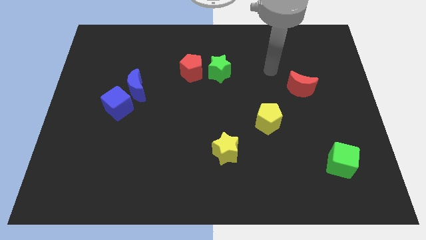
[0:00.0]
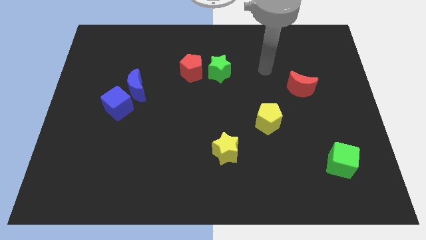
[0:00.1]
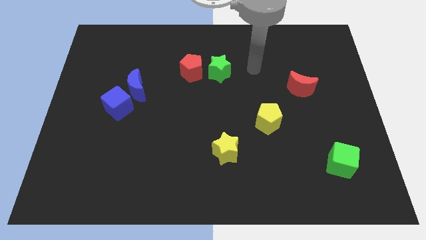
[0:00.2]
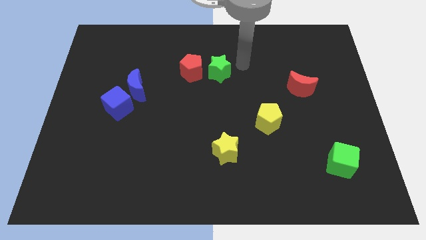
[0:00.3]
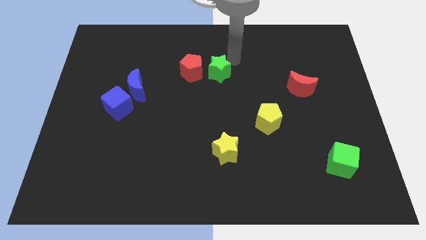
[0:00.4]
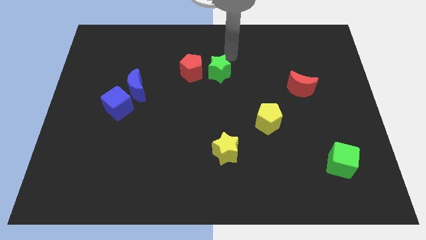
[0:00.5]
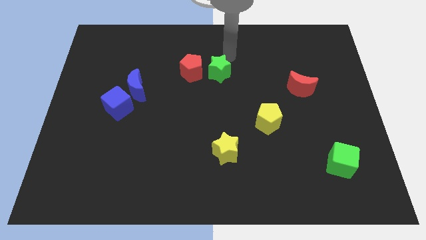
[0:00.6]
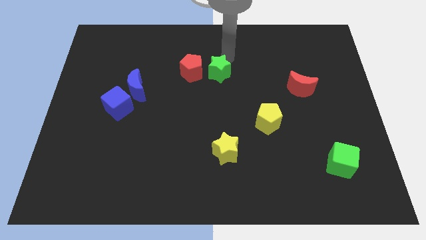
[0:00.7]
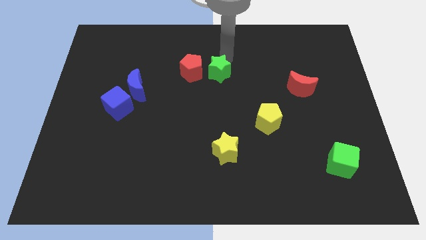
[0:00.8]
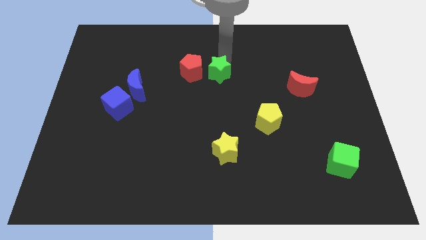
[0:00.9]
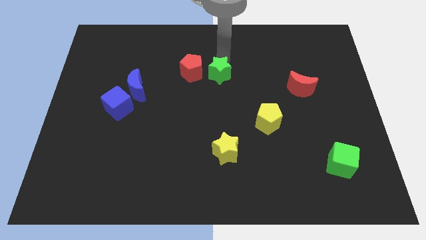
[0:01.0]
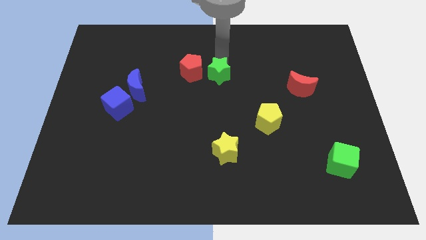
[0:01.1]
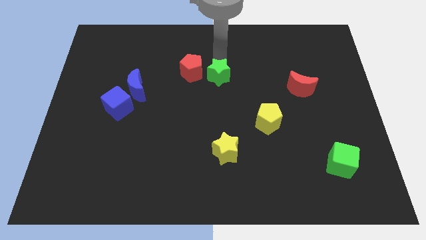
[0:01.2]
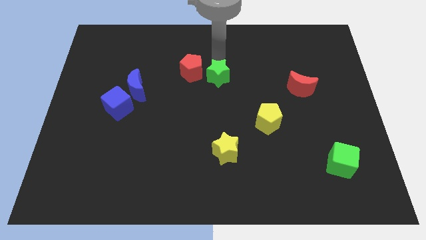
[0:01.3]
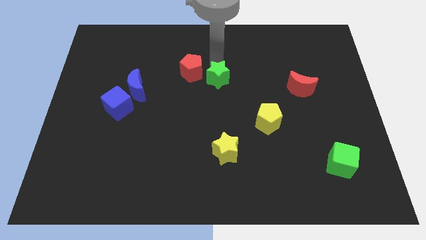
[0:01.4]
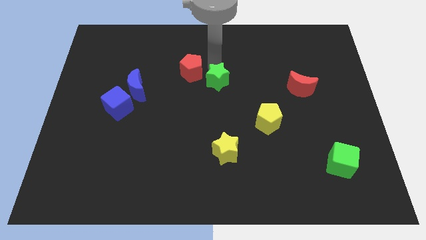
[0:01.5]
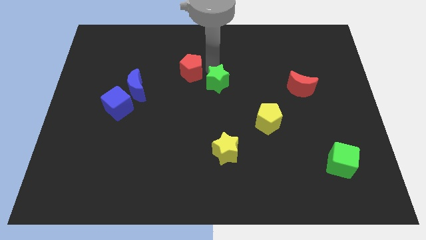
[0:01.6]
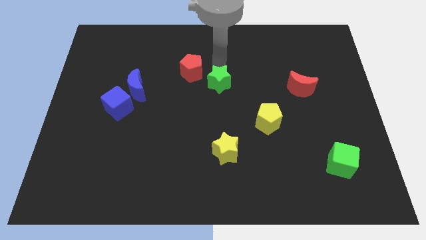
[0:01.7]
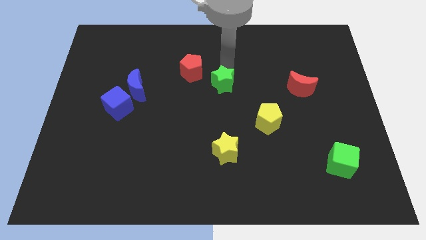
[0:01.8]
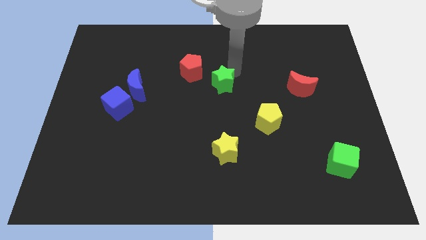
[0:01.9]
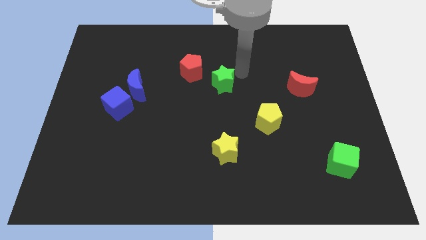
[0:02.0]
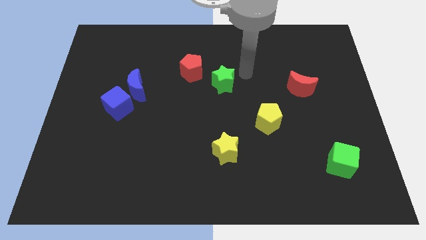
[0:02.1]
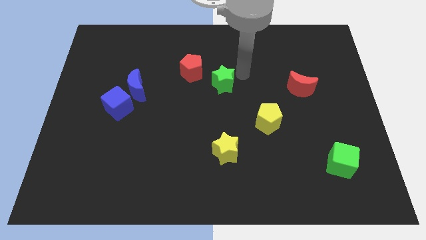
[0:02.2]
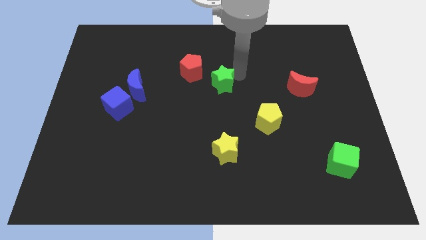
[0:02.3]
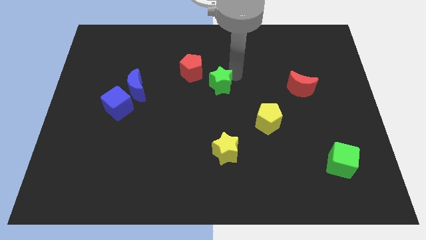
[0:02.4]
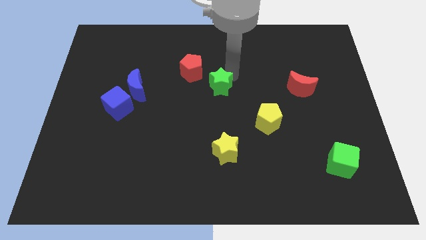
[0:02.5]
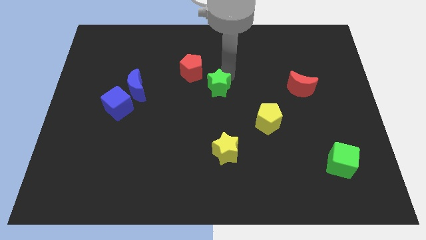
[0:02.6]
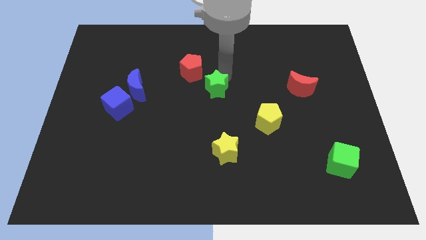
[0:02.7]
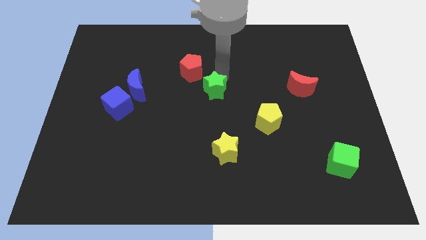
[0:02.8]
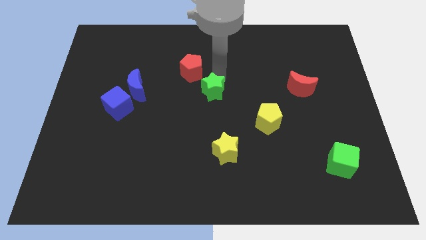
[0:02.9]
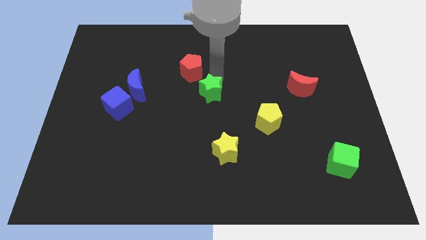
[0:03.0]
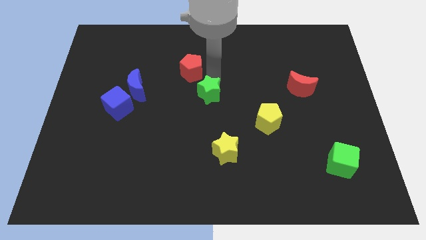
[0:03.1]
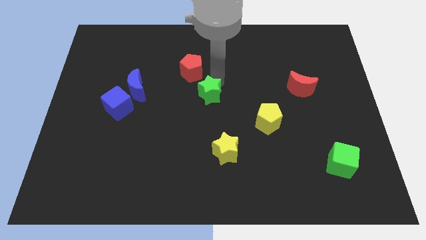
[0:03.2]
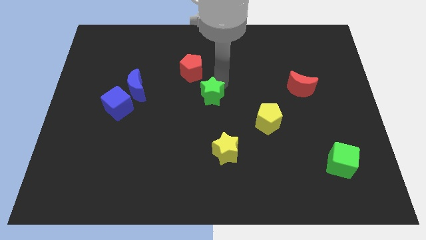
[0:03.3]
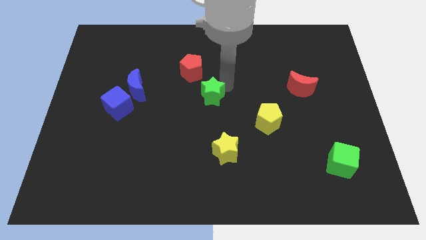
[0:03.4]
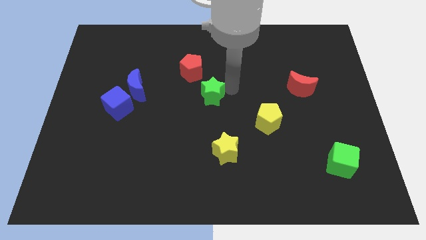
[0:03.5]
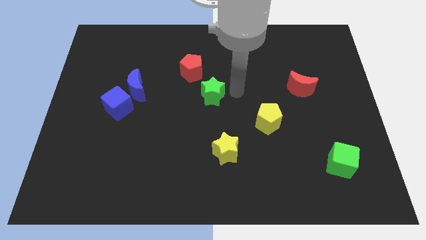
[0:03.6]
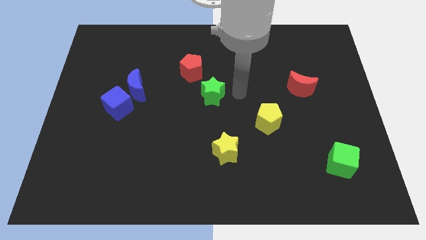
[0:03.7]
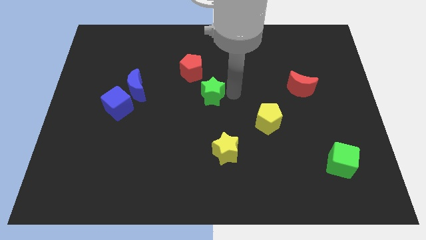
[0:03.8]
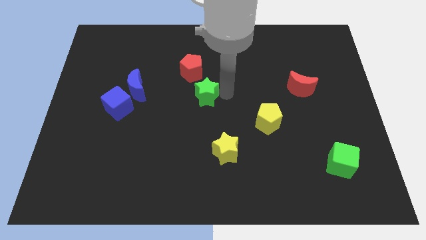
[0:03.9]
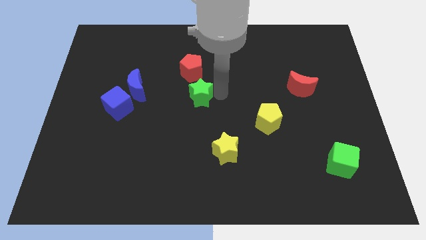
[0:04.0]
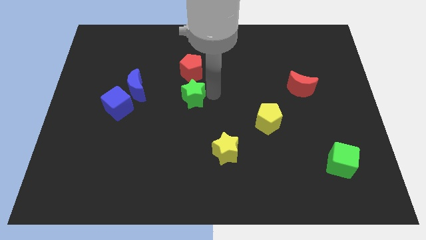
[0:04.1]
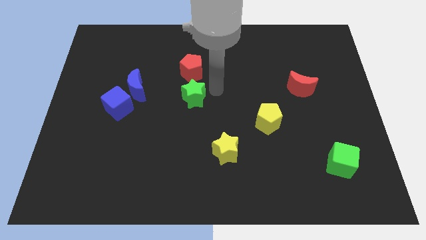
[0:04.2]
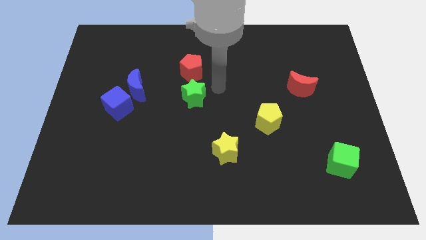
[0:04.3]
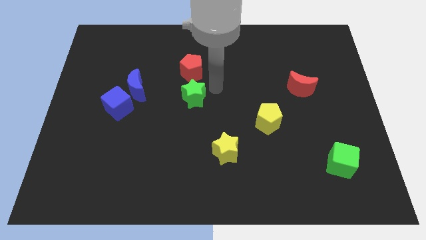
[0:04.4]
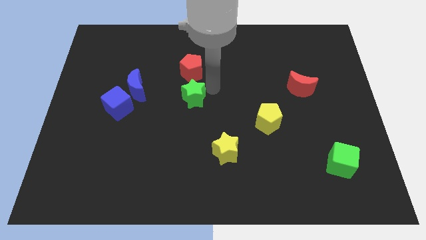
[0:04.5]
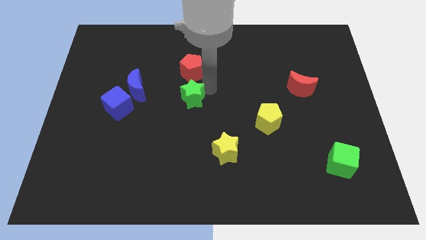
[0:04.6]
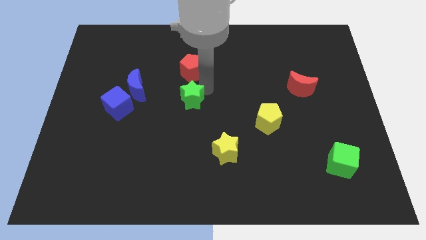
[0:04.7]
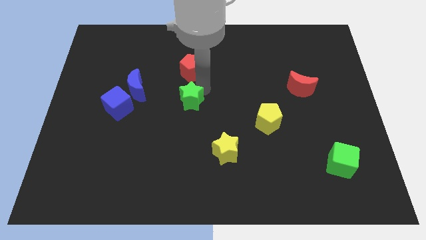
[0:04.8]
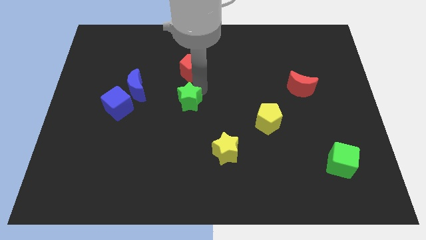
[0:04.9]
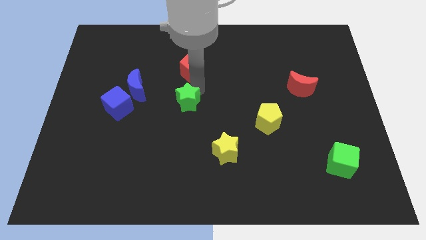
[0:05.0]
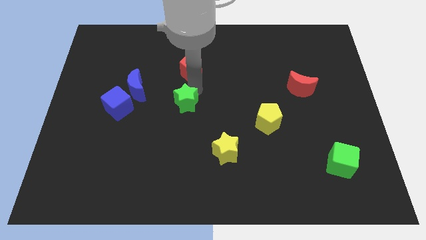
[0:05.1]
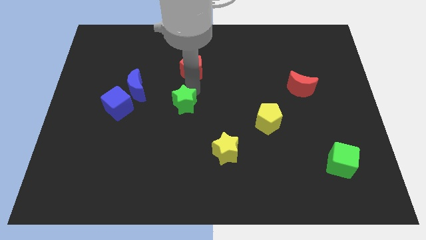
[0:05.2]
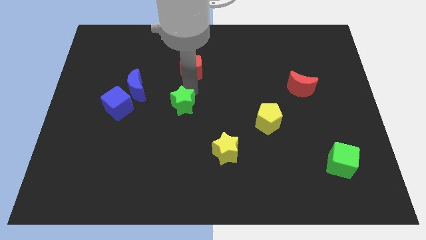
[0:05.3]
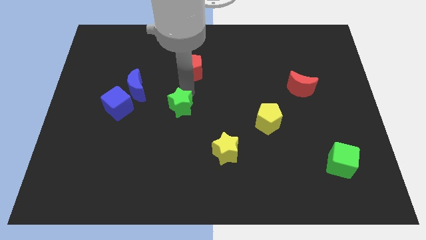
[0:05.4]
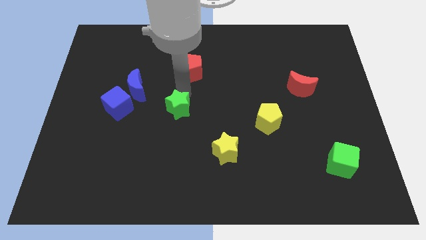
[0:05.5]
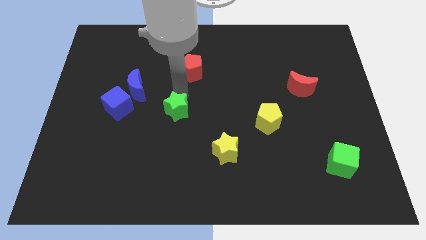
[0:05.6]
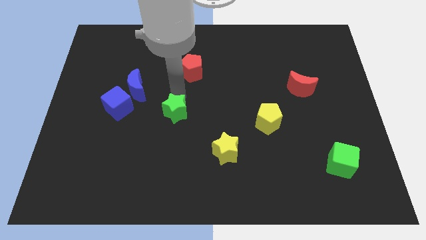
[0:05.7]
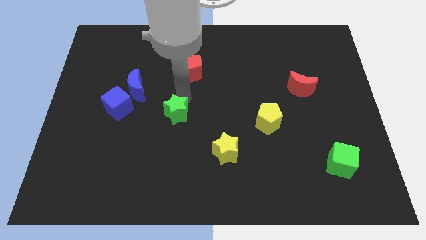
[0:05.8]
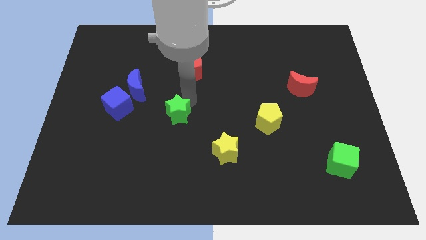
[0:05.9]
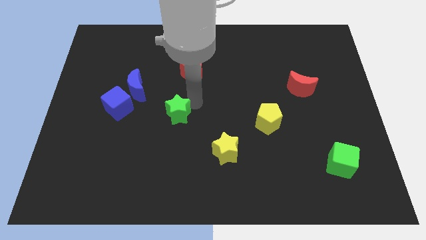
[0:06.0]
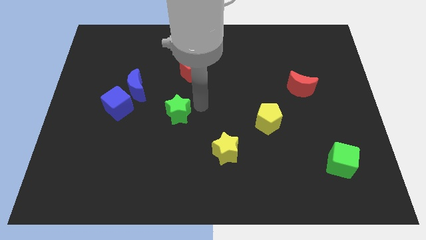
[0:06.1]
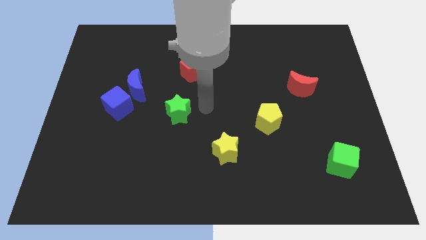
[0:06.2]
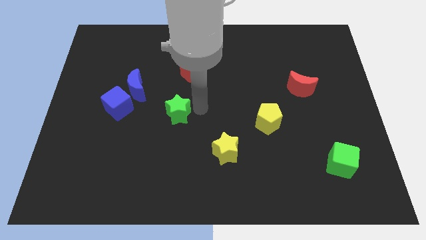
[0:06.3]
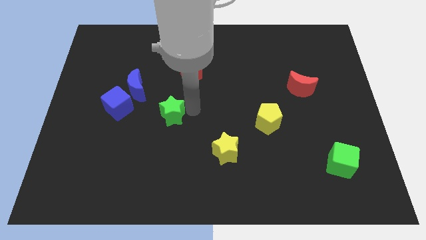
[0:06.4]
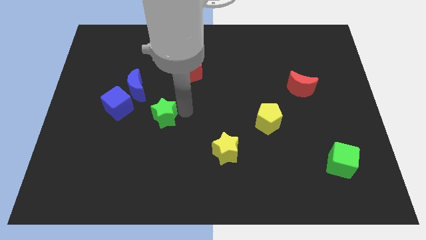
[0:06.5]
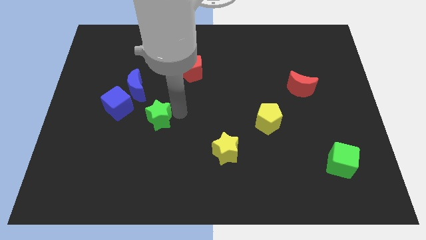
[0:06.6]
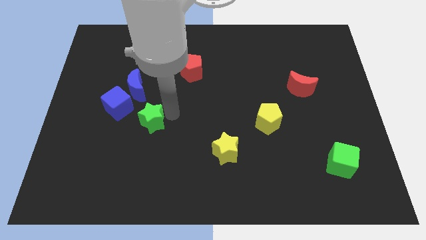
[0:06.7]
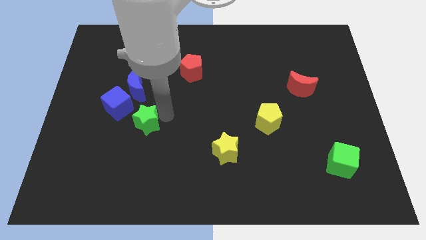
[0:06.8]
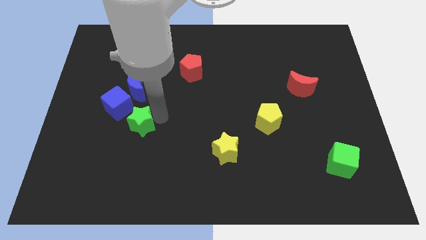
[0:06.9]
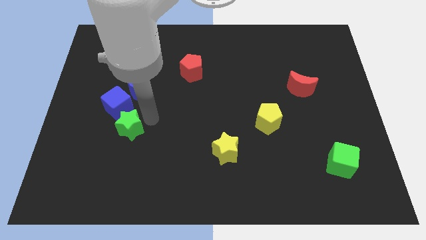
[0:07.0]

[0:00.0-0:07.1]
slide the green star to the bottom of the blue cube

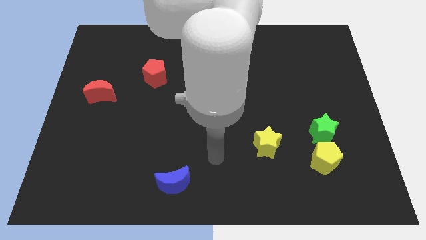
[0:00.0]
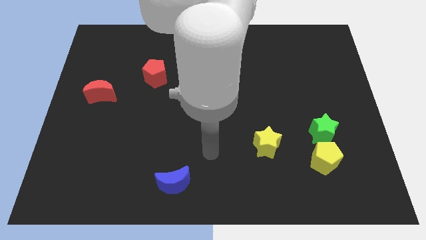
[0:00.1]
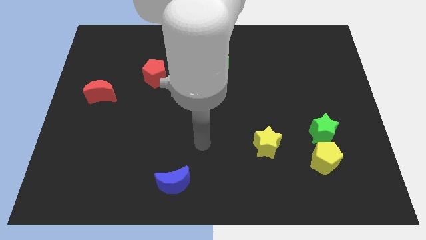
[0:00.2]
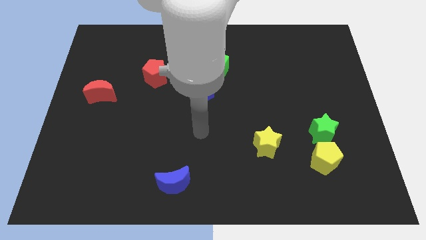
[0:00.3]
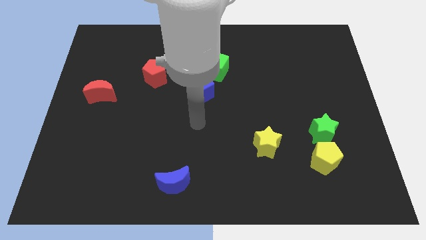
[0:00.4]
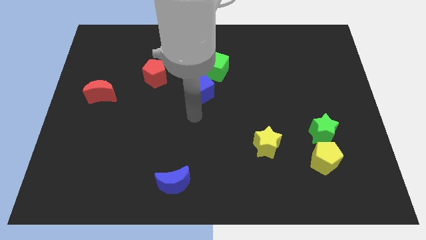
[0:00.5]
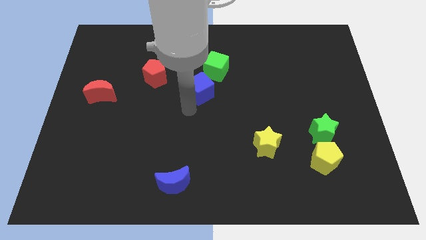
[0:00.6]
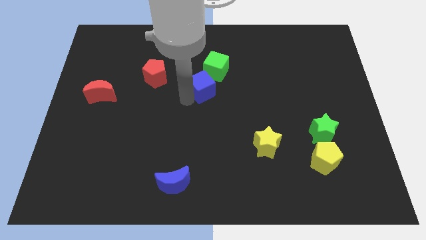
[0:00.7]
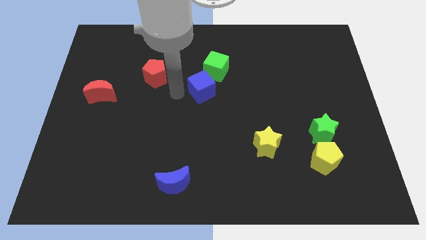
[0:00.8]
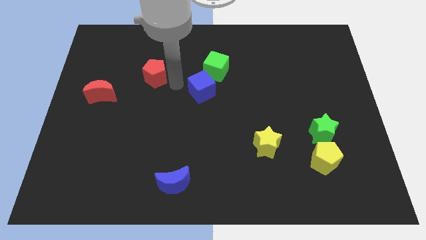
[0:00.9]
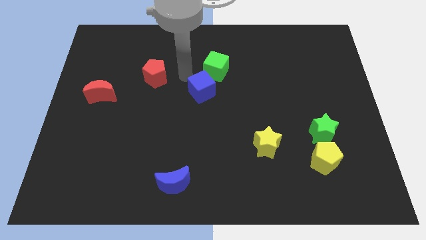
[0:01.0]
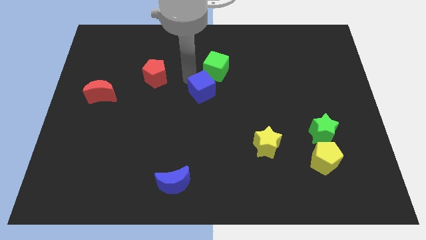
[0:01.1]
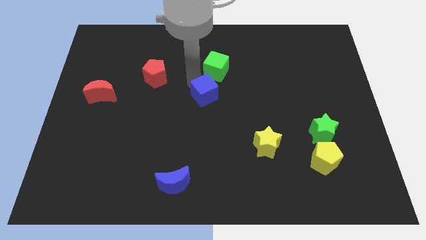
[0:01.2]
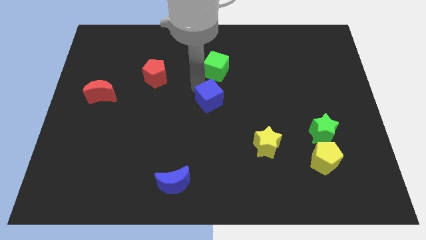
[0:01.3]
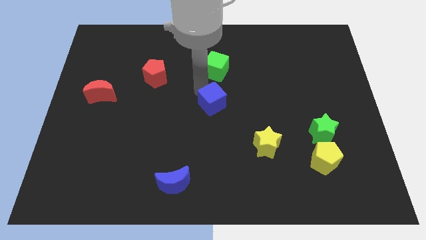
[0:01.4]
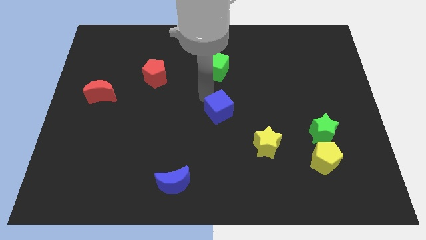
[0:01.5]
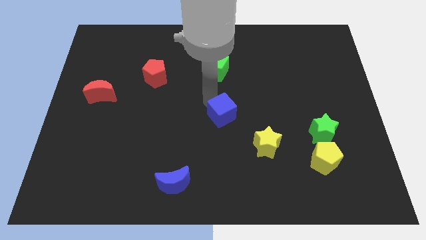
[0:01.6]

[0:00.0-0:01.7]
put the blue cube to the top left side of the yellow star
